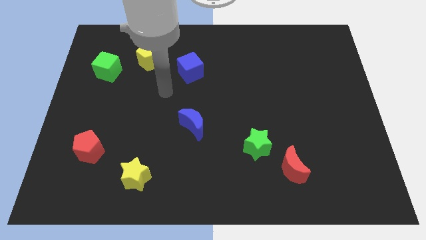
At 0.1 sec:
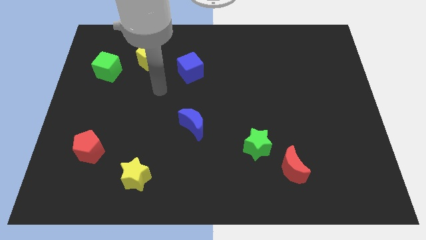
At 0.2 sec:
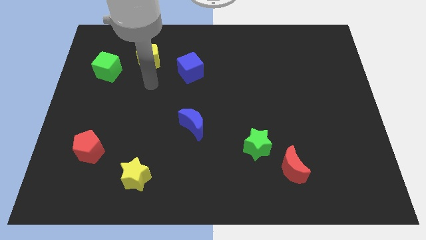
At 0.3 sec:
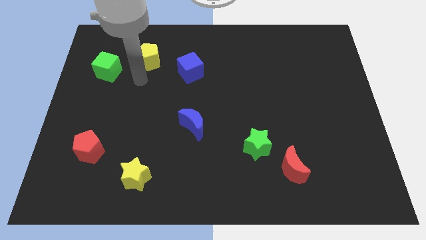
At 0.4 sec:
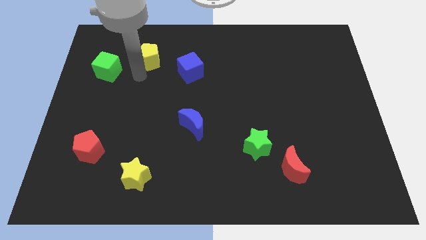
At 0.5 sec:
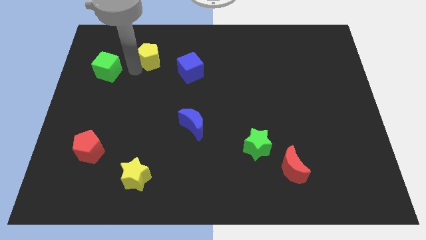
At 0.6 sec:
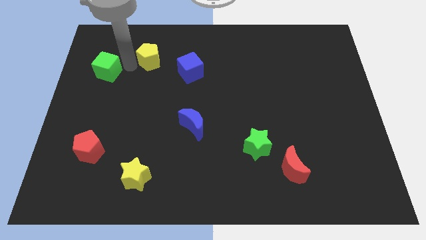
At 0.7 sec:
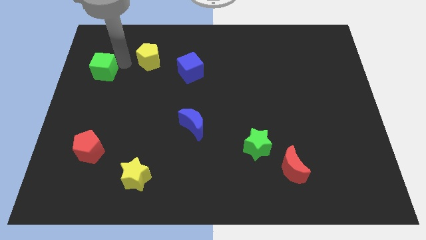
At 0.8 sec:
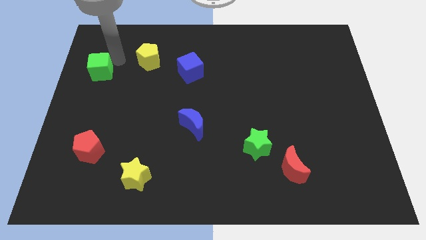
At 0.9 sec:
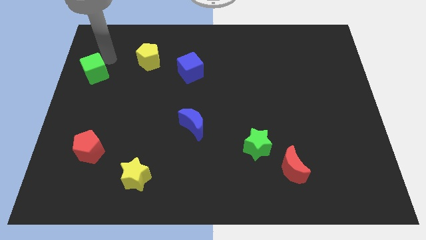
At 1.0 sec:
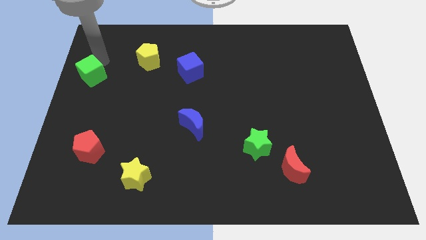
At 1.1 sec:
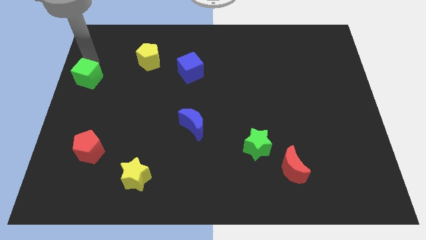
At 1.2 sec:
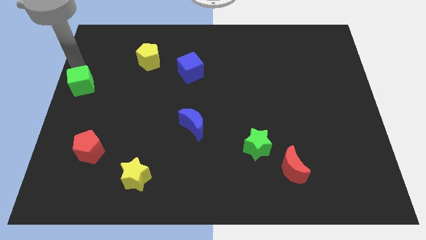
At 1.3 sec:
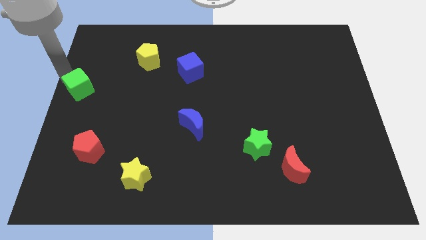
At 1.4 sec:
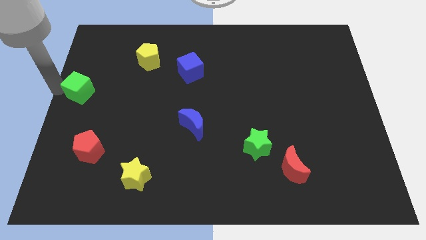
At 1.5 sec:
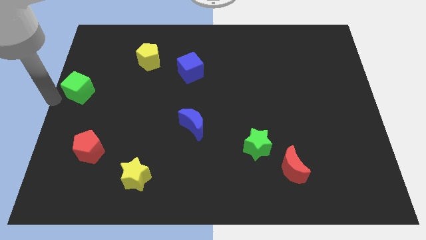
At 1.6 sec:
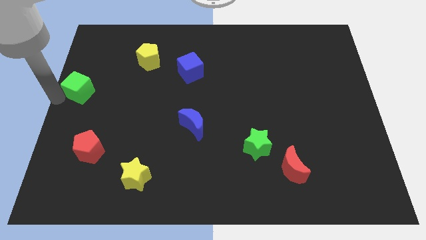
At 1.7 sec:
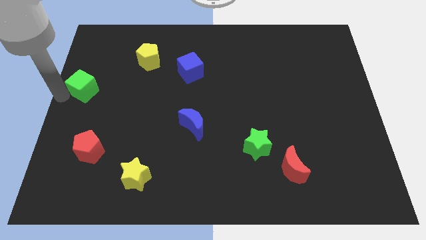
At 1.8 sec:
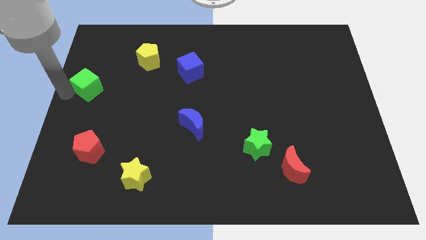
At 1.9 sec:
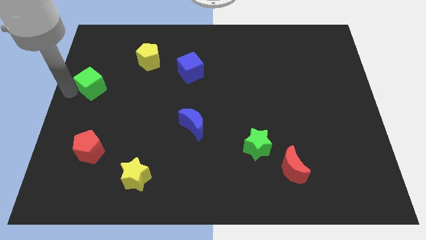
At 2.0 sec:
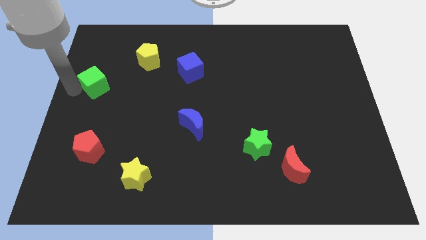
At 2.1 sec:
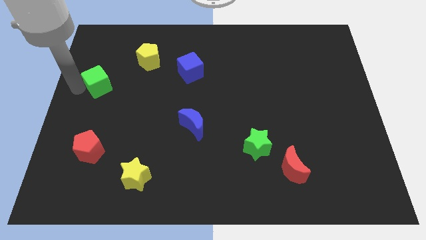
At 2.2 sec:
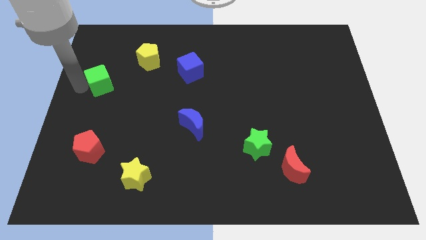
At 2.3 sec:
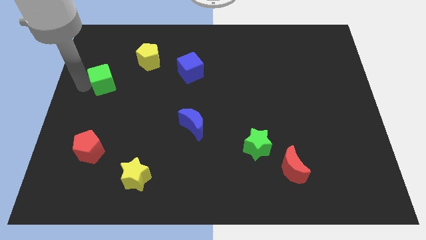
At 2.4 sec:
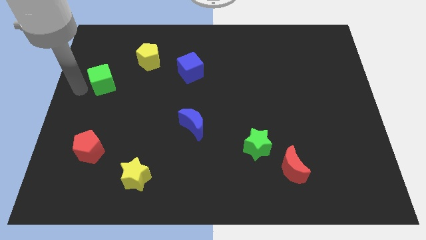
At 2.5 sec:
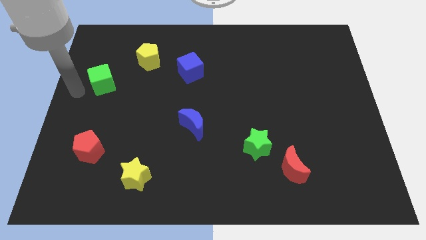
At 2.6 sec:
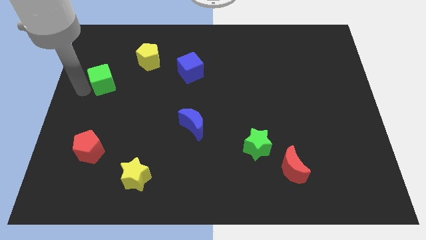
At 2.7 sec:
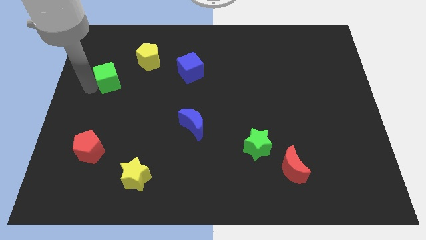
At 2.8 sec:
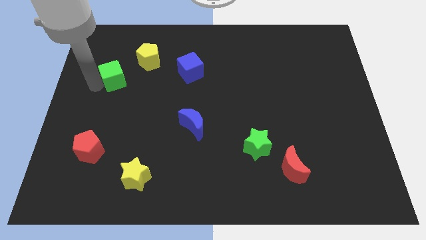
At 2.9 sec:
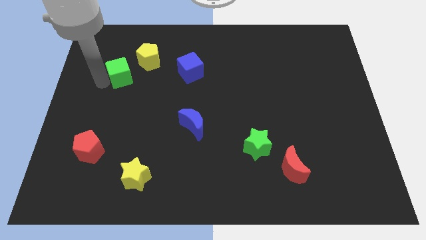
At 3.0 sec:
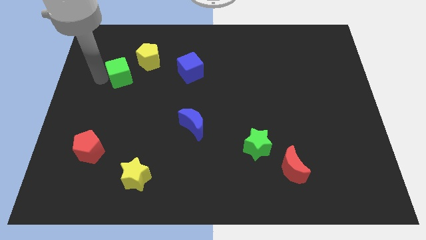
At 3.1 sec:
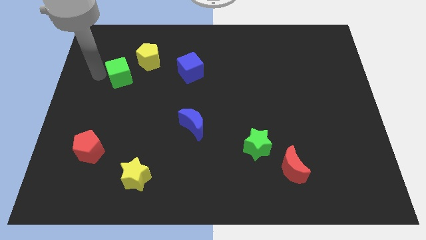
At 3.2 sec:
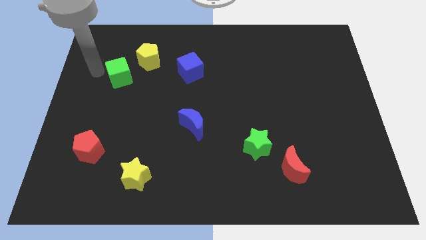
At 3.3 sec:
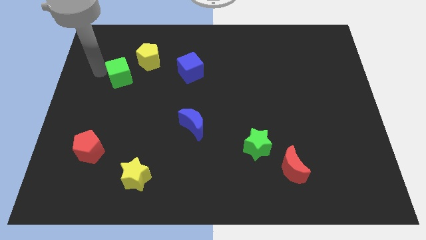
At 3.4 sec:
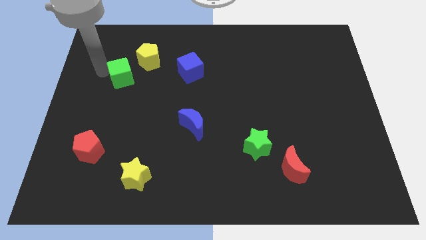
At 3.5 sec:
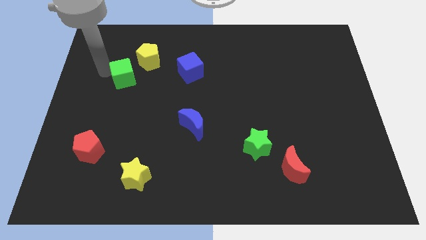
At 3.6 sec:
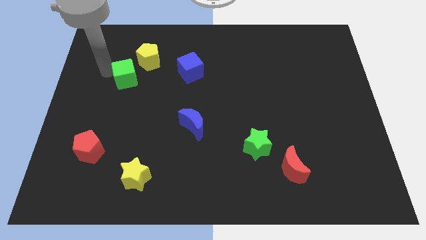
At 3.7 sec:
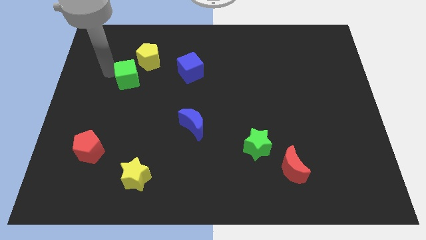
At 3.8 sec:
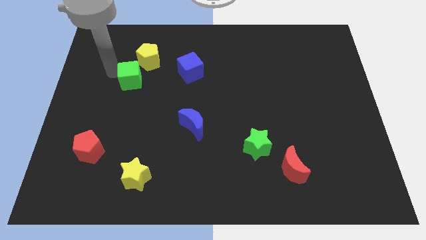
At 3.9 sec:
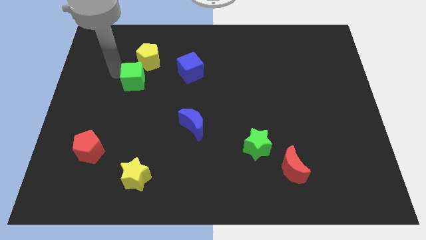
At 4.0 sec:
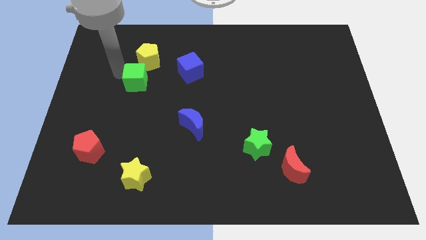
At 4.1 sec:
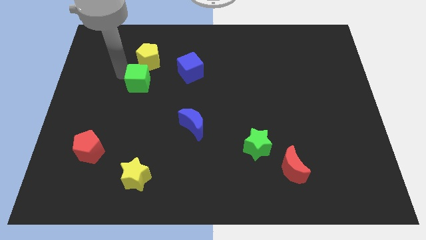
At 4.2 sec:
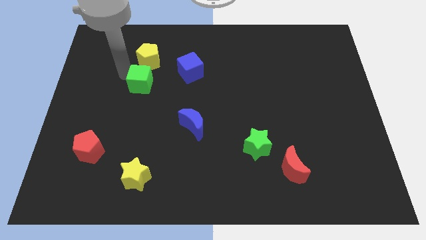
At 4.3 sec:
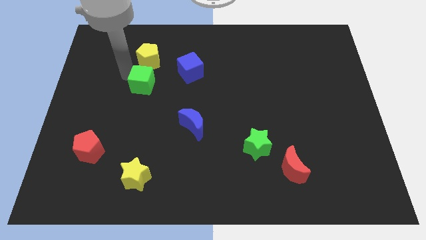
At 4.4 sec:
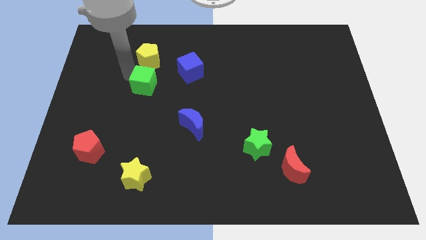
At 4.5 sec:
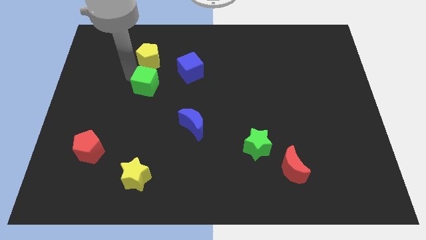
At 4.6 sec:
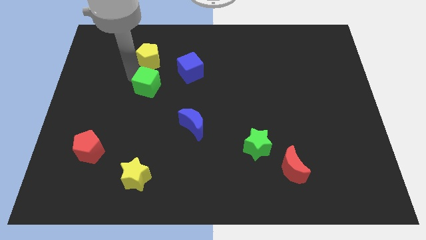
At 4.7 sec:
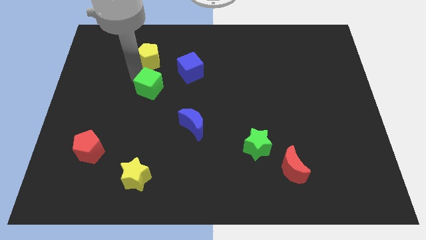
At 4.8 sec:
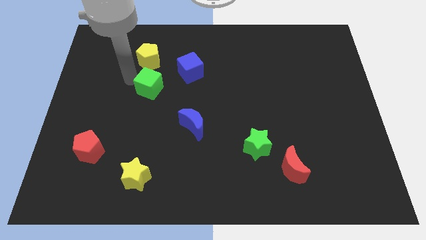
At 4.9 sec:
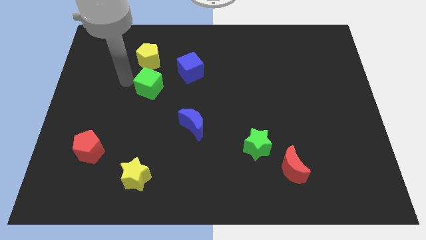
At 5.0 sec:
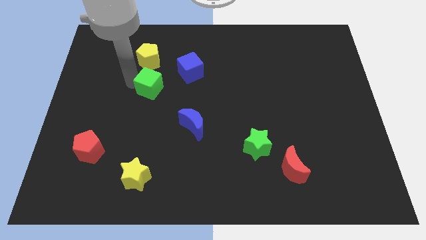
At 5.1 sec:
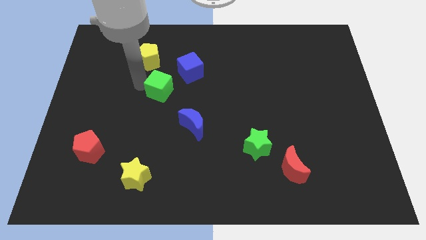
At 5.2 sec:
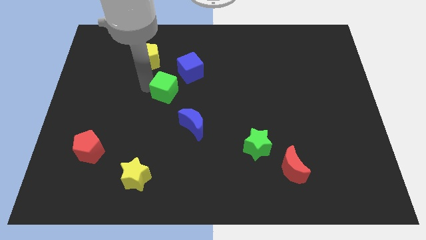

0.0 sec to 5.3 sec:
push the green cube to the middle

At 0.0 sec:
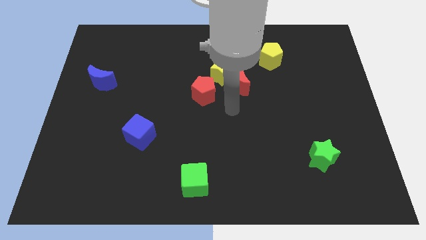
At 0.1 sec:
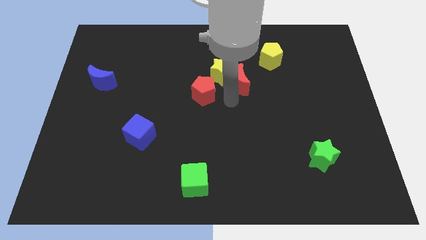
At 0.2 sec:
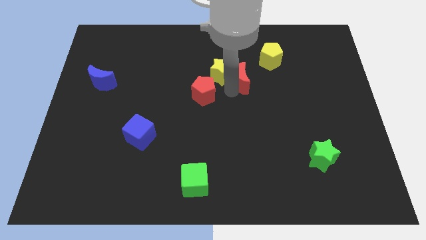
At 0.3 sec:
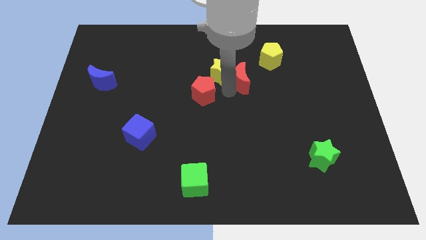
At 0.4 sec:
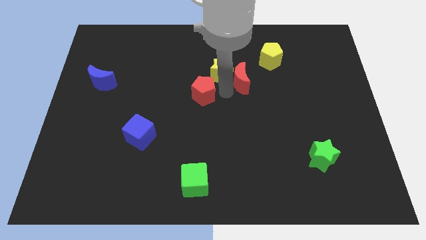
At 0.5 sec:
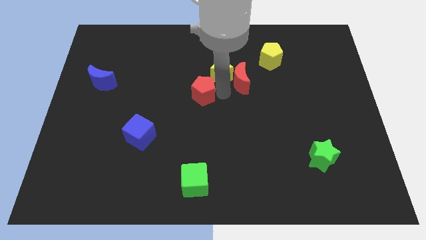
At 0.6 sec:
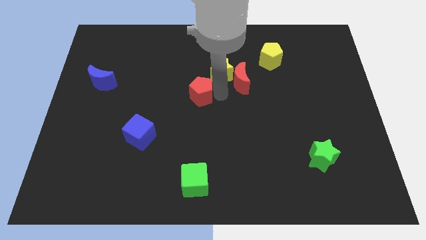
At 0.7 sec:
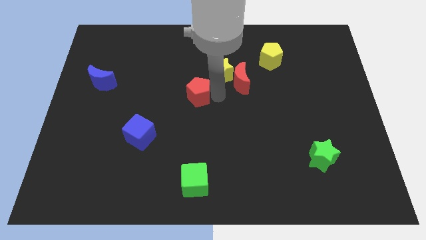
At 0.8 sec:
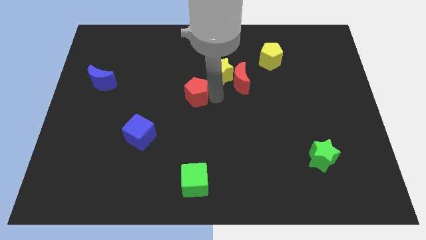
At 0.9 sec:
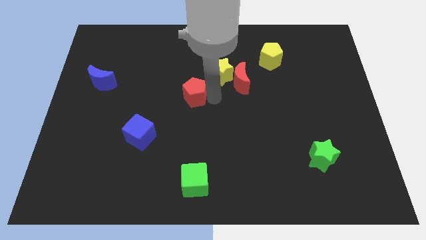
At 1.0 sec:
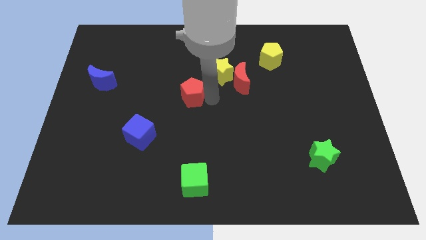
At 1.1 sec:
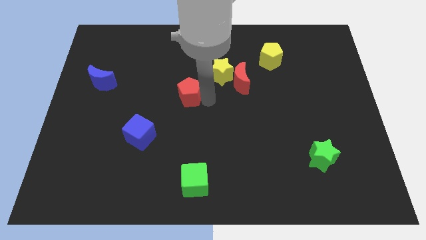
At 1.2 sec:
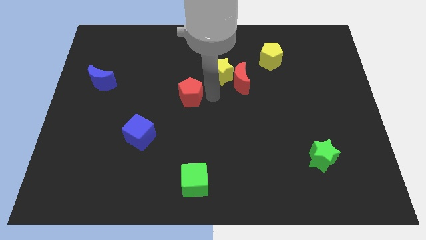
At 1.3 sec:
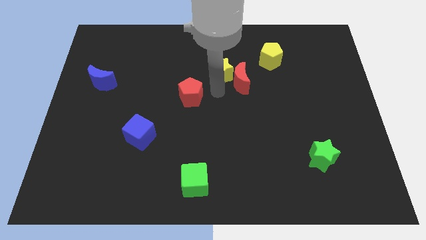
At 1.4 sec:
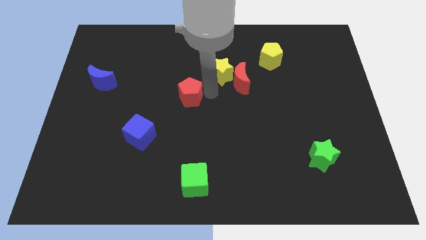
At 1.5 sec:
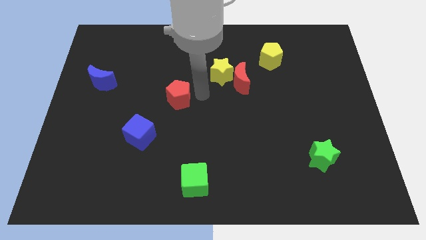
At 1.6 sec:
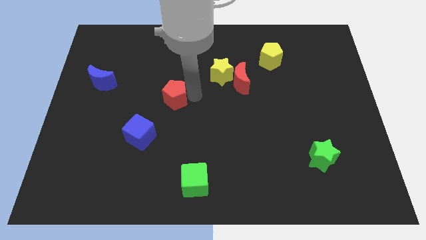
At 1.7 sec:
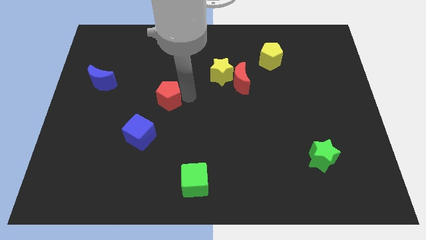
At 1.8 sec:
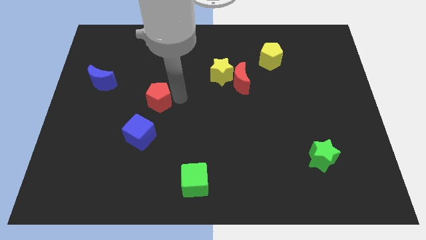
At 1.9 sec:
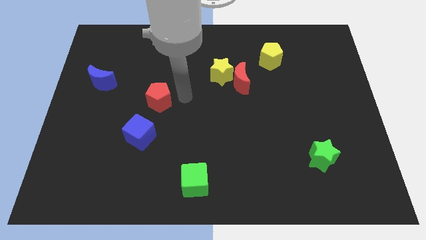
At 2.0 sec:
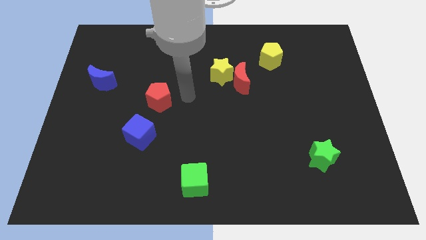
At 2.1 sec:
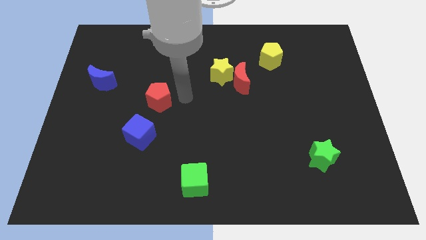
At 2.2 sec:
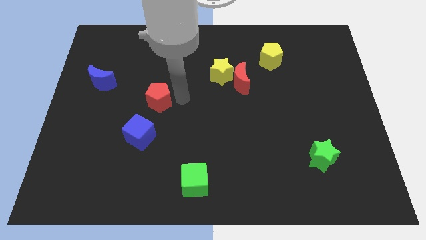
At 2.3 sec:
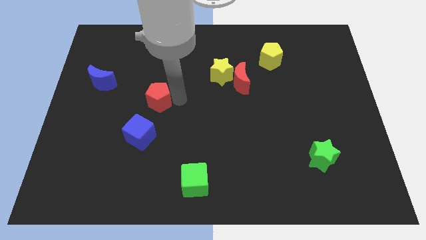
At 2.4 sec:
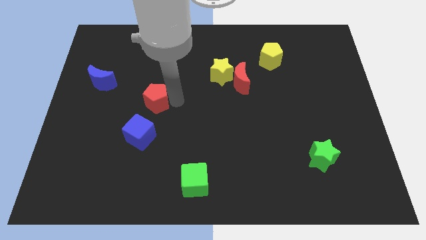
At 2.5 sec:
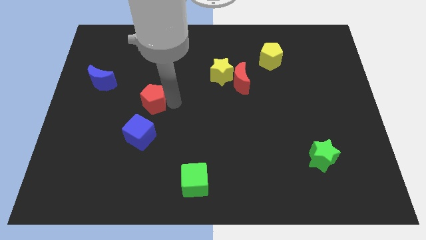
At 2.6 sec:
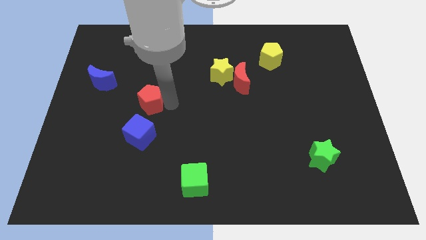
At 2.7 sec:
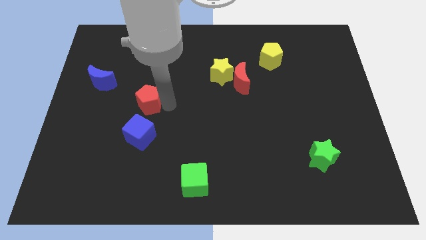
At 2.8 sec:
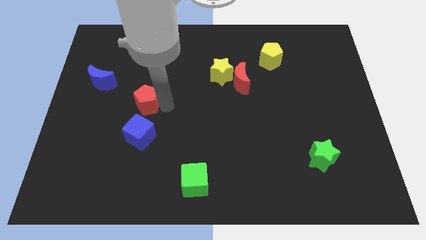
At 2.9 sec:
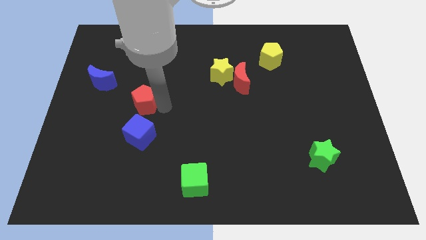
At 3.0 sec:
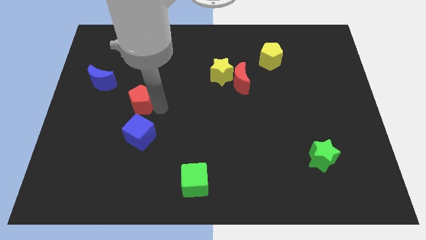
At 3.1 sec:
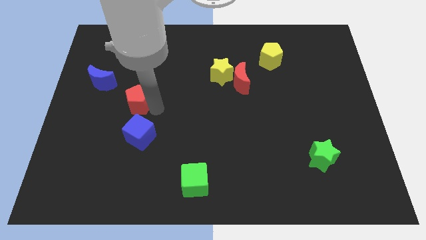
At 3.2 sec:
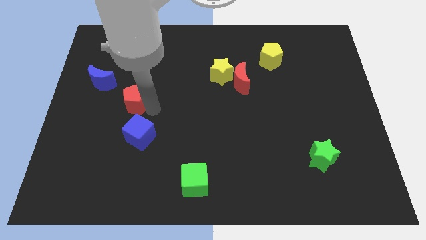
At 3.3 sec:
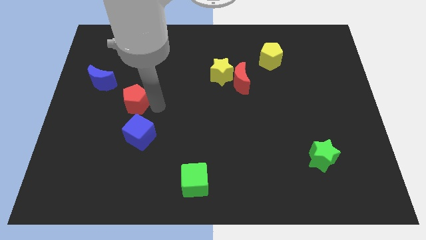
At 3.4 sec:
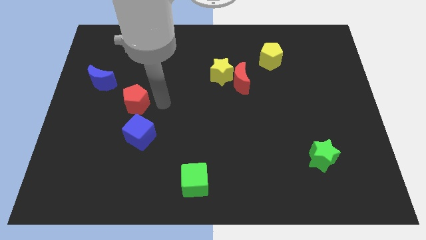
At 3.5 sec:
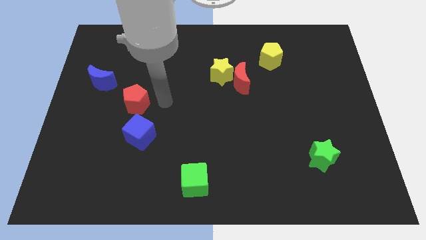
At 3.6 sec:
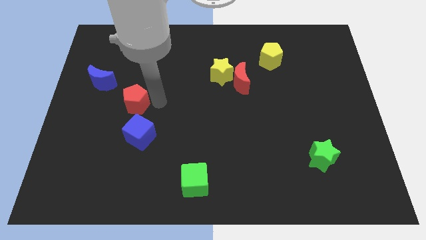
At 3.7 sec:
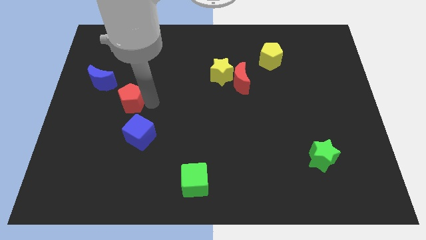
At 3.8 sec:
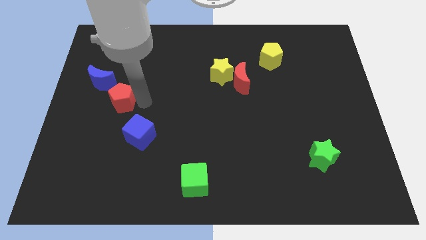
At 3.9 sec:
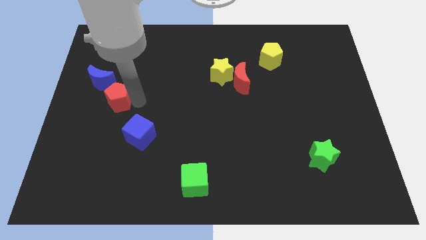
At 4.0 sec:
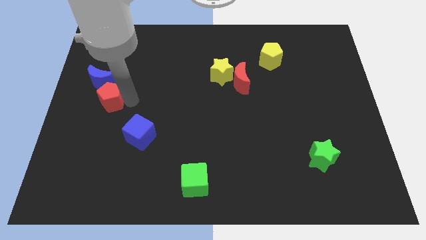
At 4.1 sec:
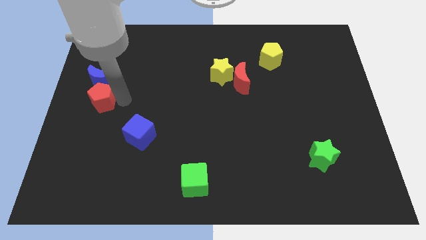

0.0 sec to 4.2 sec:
move the red pentagon to the center left
